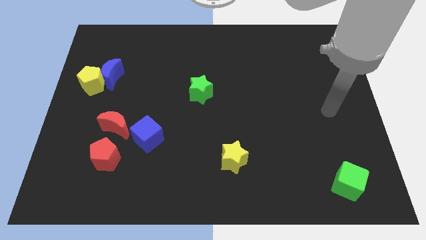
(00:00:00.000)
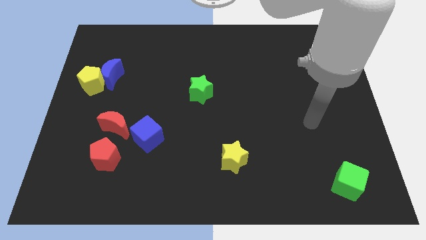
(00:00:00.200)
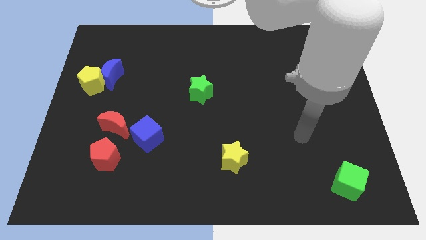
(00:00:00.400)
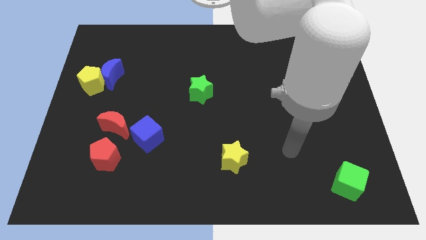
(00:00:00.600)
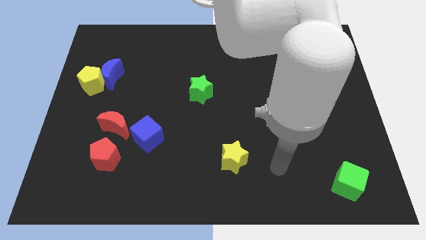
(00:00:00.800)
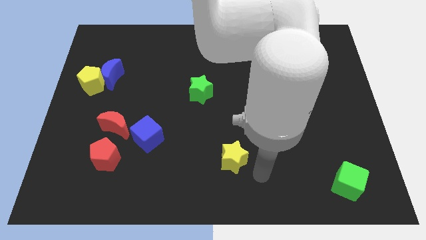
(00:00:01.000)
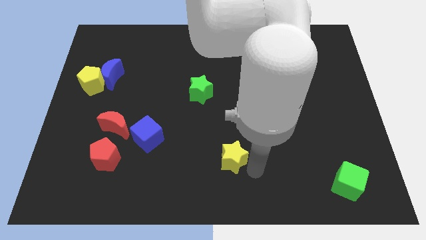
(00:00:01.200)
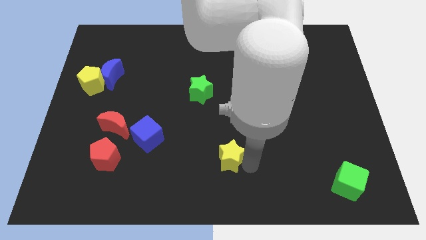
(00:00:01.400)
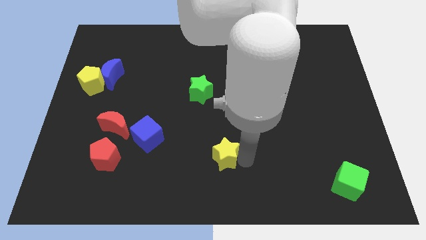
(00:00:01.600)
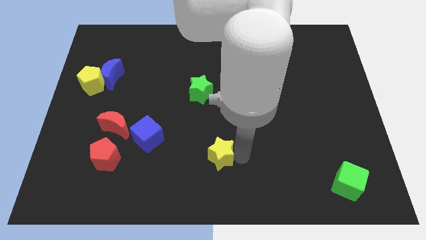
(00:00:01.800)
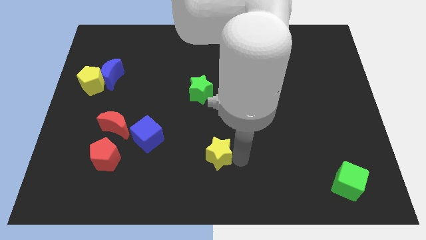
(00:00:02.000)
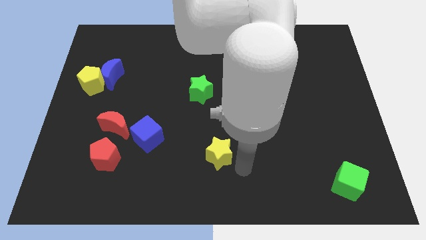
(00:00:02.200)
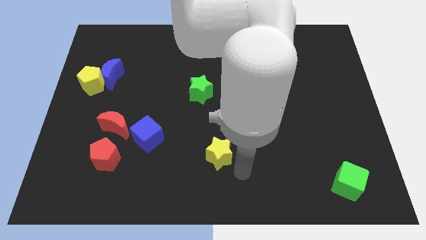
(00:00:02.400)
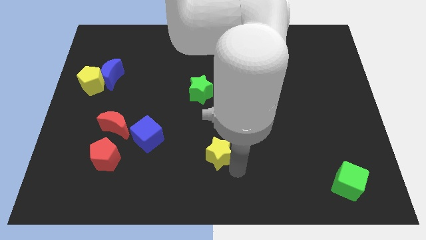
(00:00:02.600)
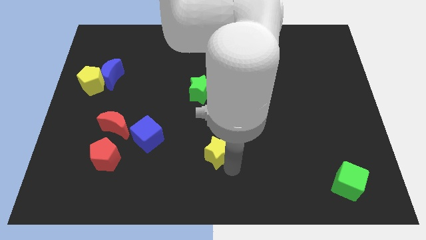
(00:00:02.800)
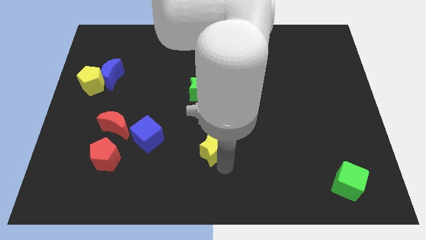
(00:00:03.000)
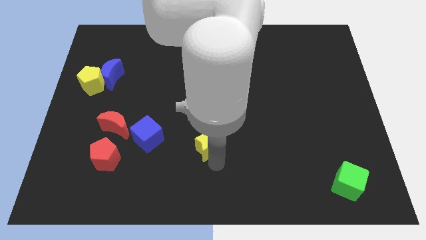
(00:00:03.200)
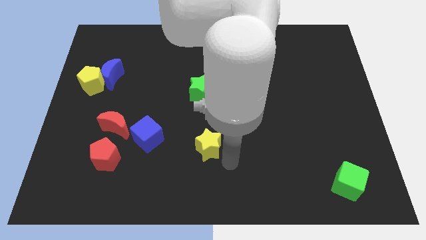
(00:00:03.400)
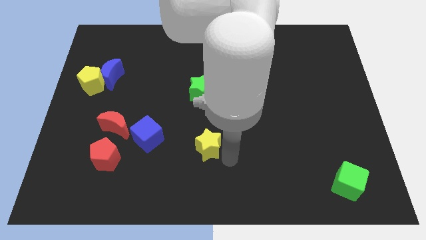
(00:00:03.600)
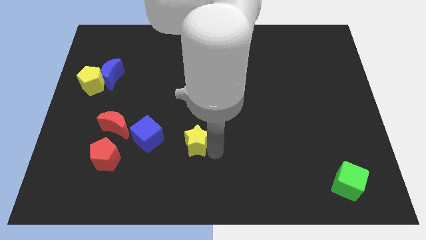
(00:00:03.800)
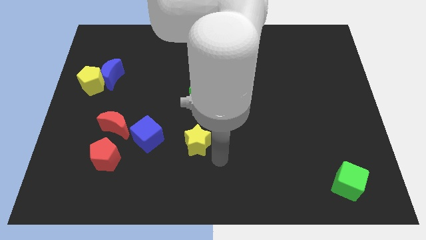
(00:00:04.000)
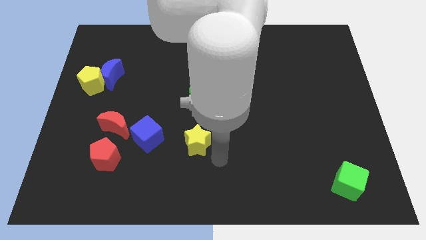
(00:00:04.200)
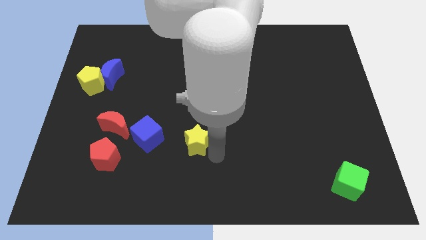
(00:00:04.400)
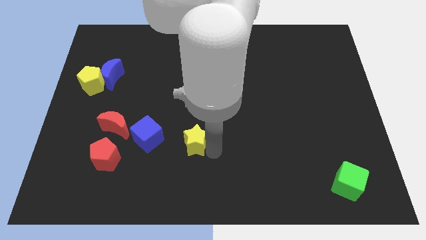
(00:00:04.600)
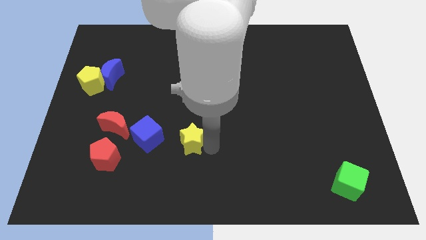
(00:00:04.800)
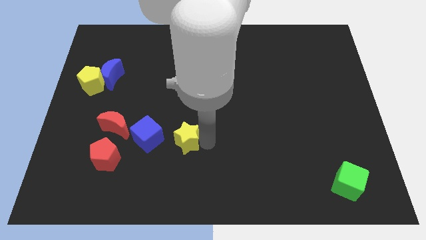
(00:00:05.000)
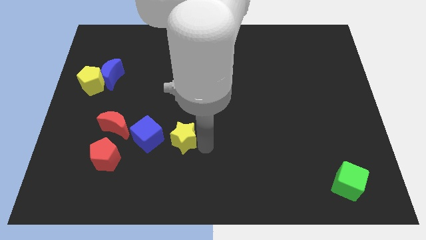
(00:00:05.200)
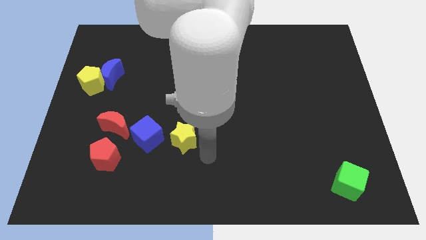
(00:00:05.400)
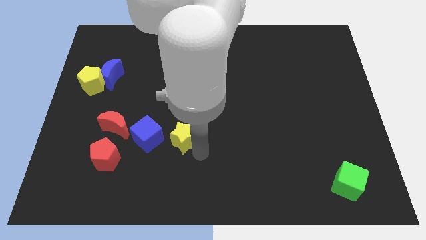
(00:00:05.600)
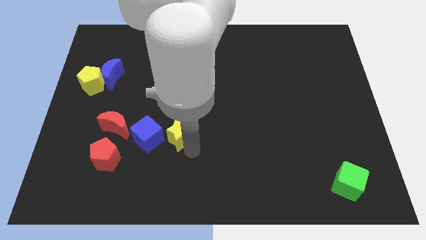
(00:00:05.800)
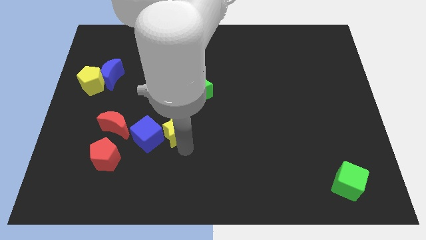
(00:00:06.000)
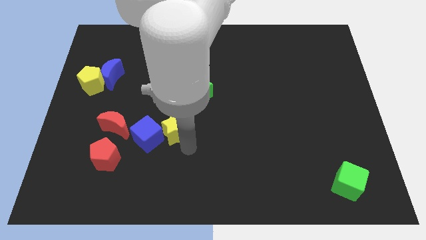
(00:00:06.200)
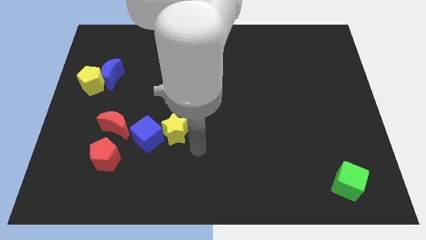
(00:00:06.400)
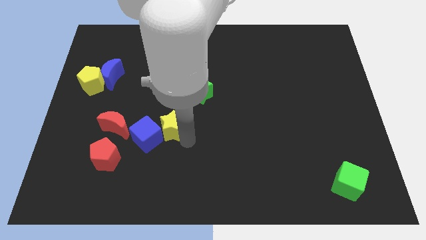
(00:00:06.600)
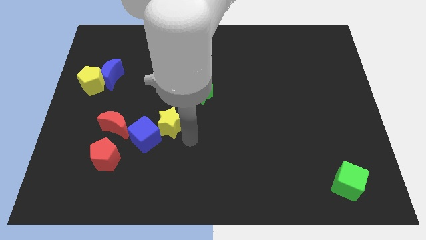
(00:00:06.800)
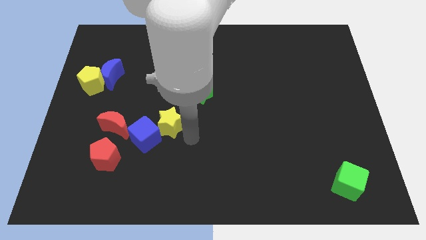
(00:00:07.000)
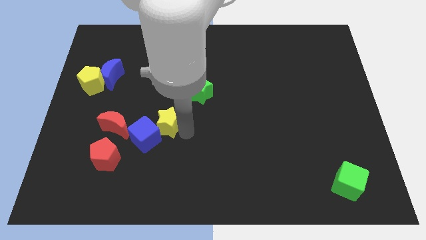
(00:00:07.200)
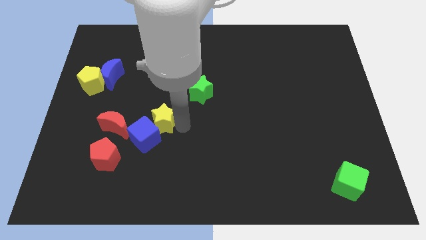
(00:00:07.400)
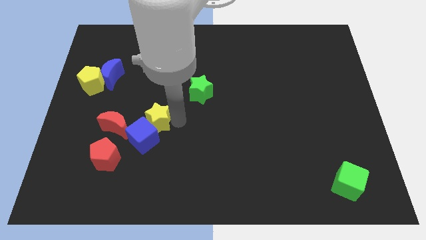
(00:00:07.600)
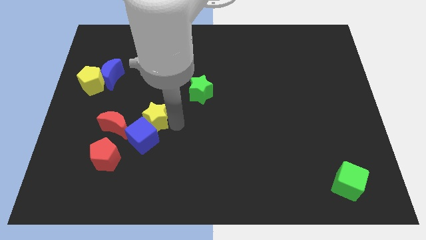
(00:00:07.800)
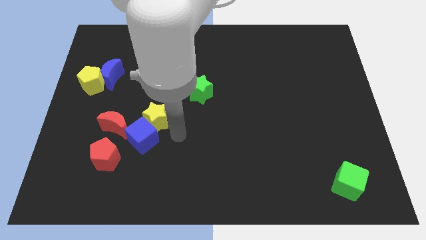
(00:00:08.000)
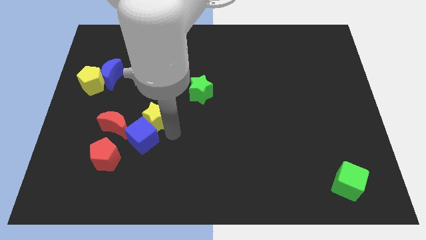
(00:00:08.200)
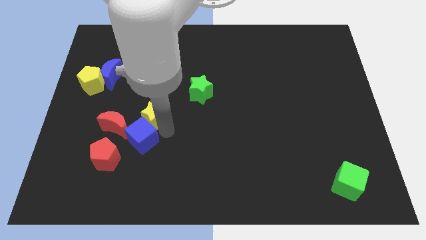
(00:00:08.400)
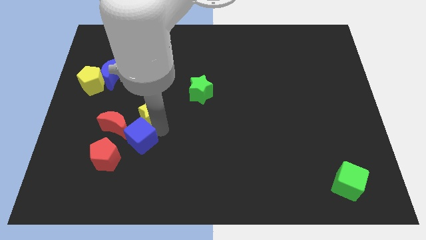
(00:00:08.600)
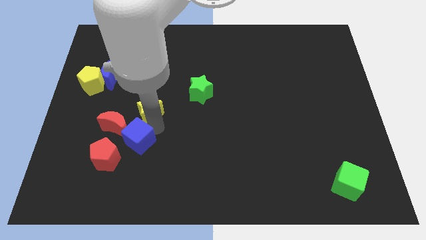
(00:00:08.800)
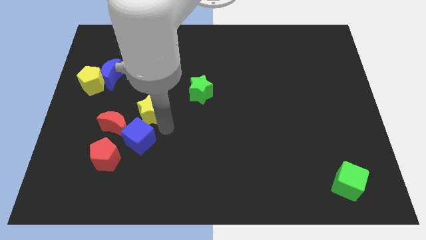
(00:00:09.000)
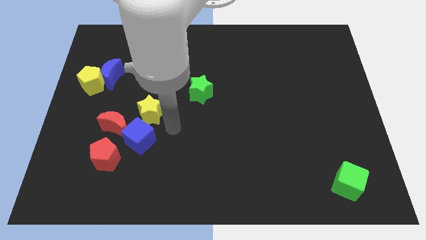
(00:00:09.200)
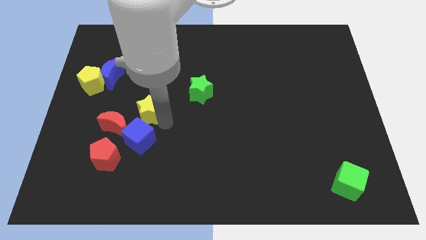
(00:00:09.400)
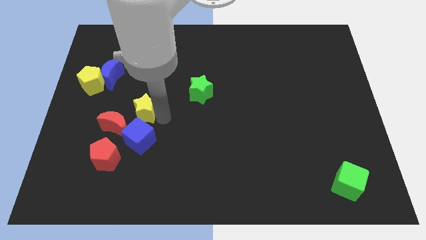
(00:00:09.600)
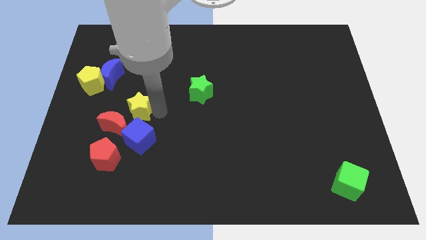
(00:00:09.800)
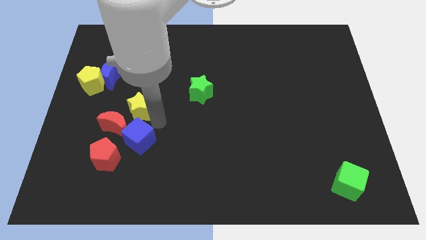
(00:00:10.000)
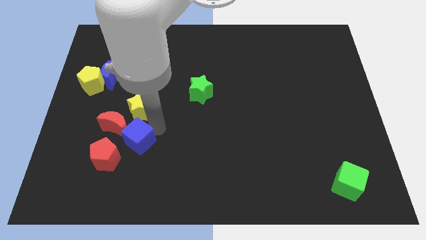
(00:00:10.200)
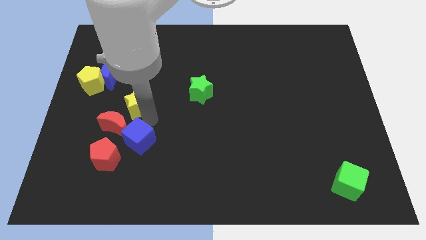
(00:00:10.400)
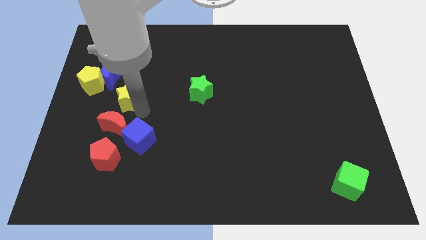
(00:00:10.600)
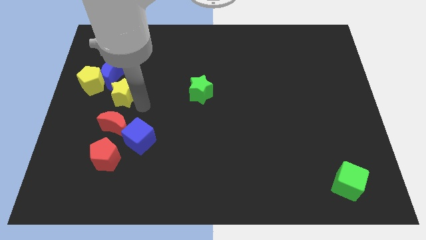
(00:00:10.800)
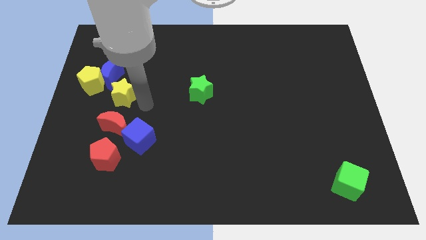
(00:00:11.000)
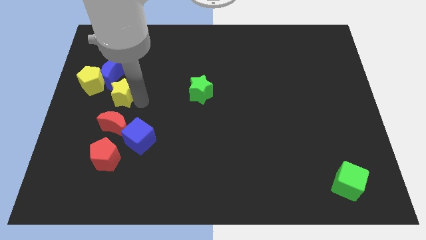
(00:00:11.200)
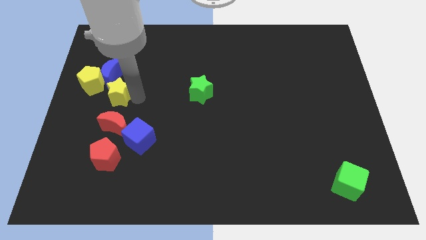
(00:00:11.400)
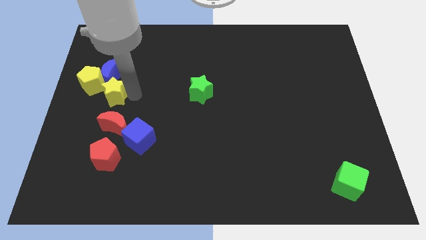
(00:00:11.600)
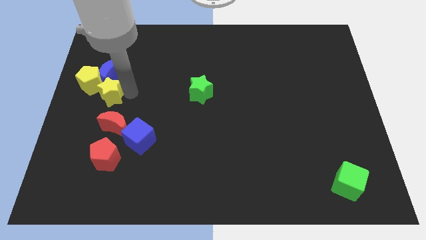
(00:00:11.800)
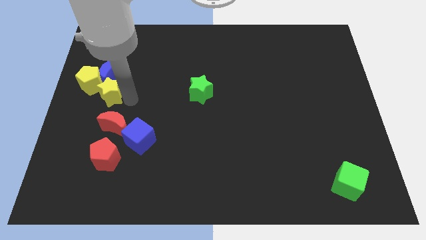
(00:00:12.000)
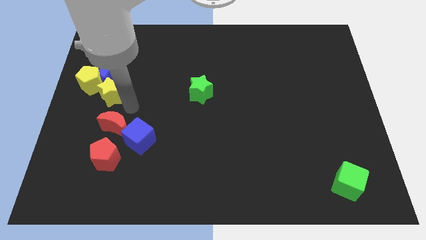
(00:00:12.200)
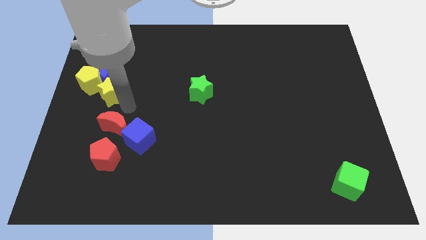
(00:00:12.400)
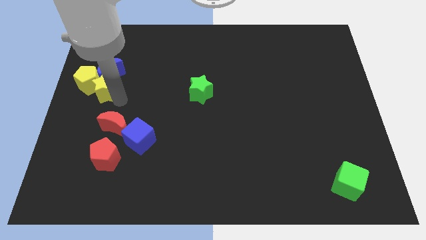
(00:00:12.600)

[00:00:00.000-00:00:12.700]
push the yellow star to the yellow pentagon

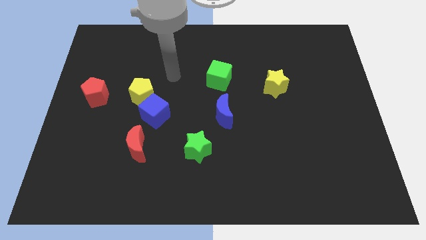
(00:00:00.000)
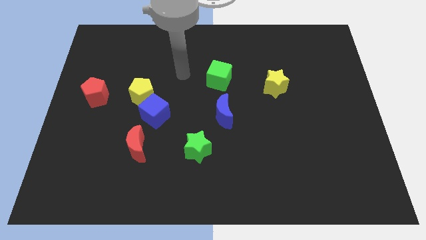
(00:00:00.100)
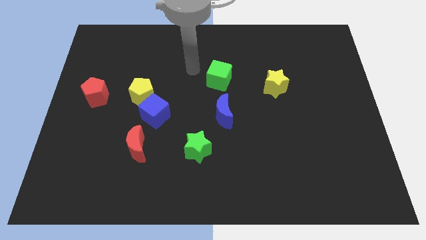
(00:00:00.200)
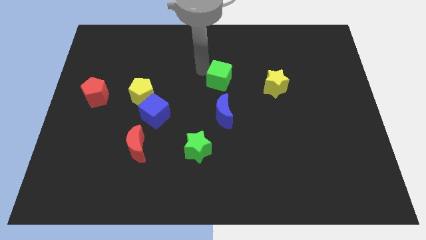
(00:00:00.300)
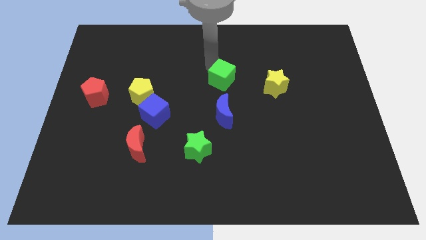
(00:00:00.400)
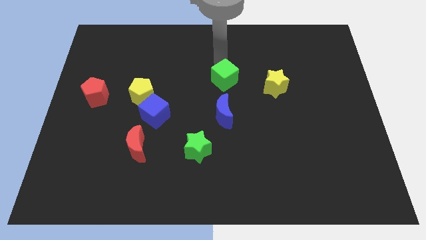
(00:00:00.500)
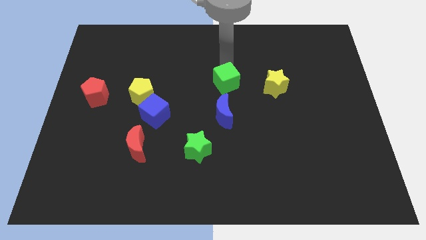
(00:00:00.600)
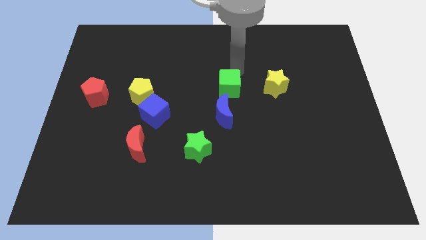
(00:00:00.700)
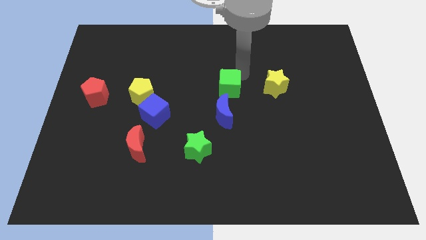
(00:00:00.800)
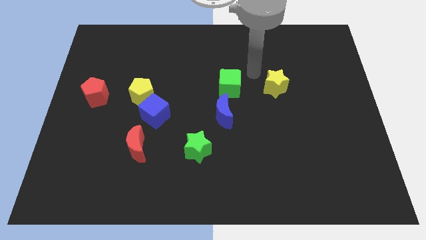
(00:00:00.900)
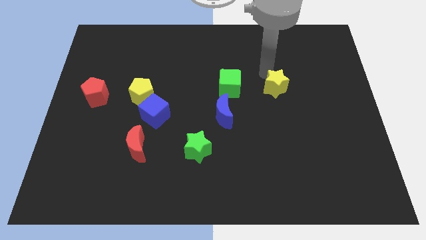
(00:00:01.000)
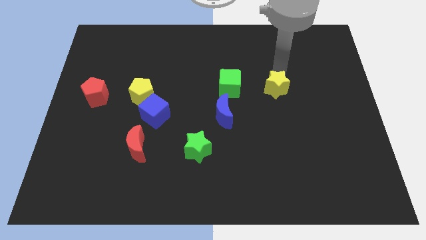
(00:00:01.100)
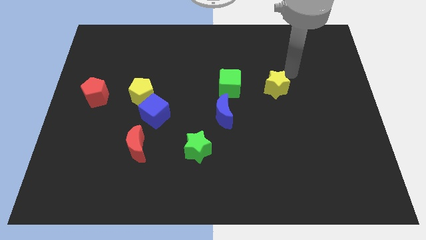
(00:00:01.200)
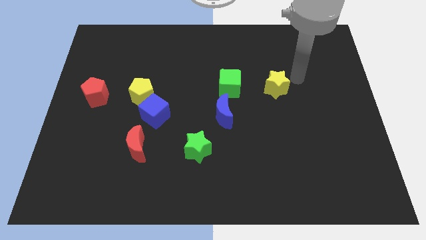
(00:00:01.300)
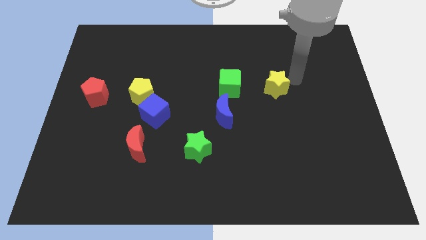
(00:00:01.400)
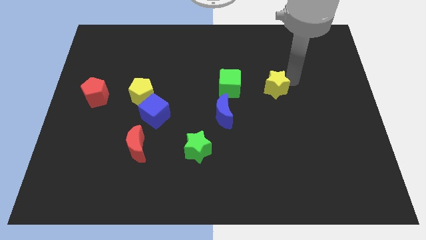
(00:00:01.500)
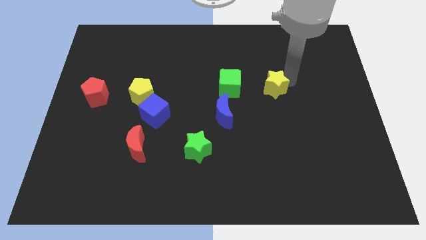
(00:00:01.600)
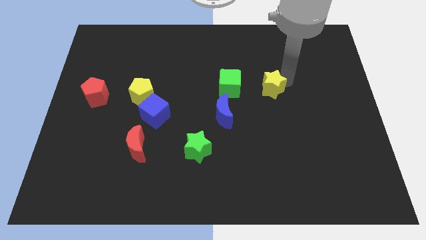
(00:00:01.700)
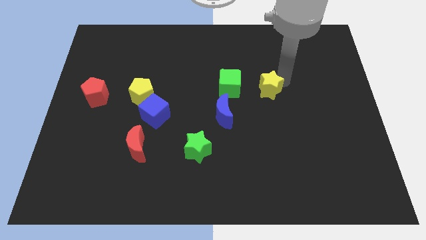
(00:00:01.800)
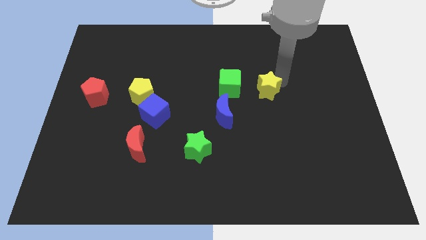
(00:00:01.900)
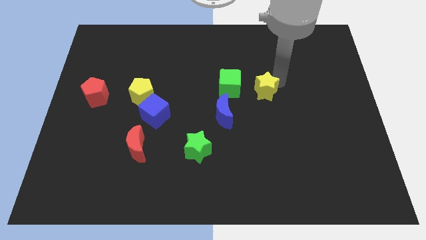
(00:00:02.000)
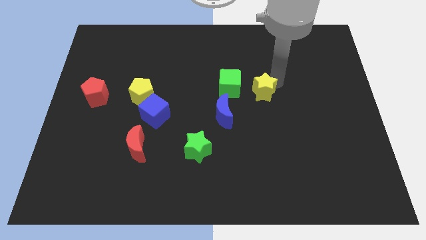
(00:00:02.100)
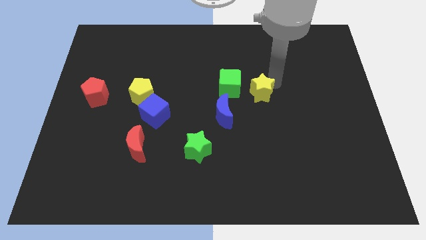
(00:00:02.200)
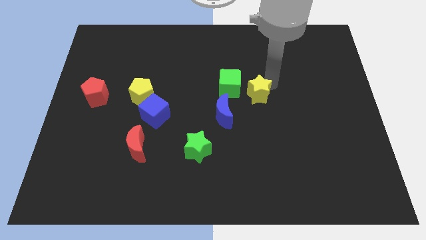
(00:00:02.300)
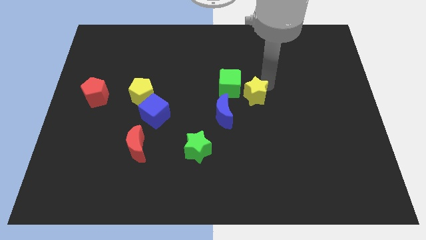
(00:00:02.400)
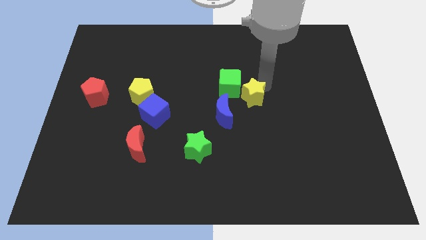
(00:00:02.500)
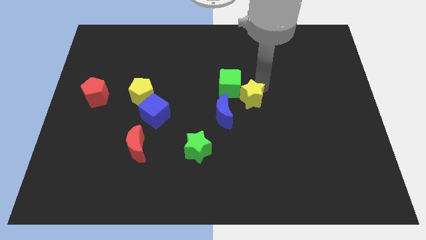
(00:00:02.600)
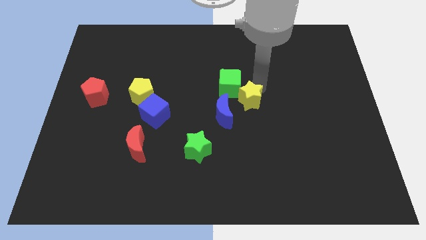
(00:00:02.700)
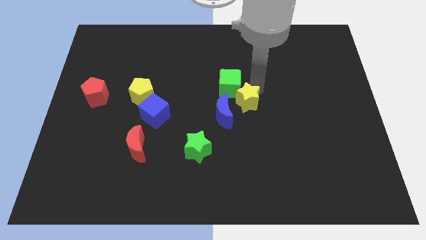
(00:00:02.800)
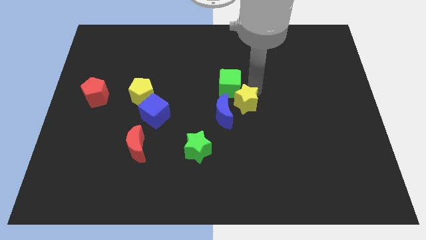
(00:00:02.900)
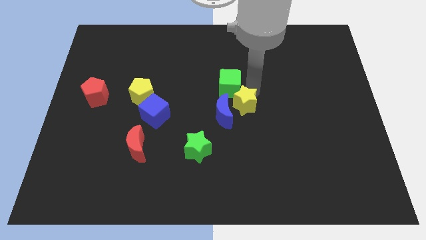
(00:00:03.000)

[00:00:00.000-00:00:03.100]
put the yellow star next to the blue moon
